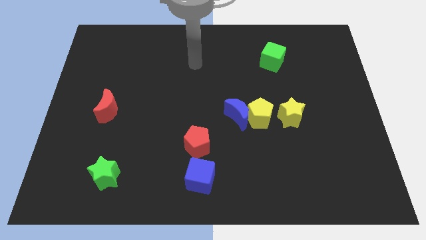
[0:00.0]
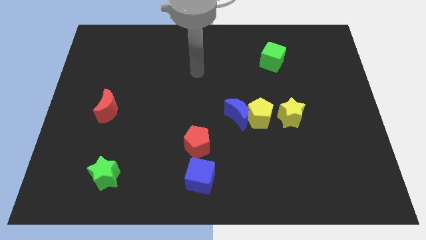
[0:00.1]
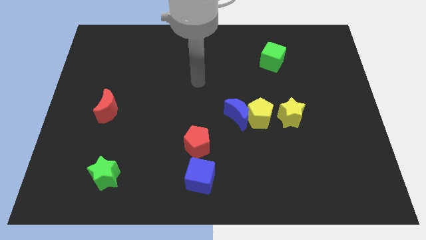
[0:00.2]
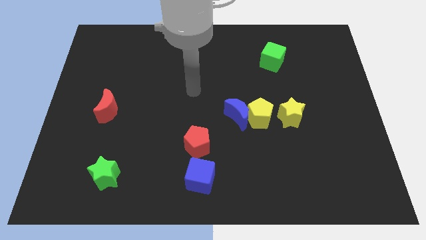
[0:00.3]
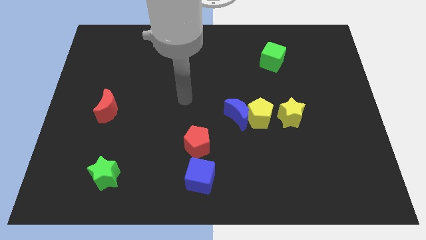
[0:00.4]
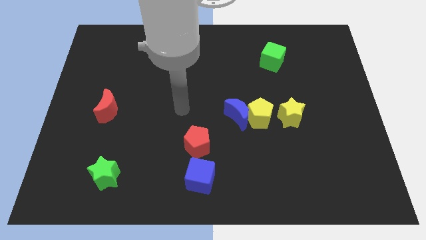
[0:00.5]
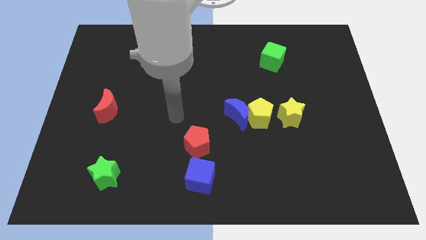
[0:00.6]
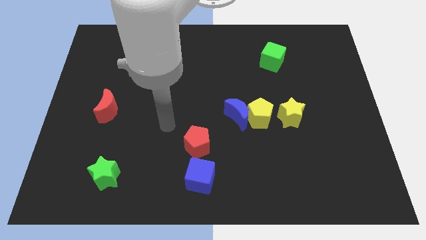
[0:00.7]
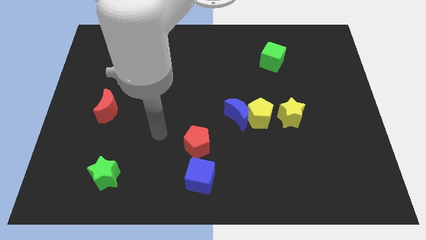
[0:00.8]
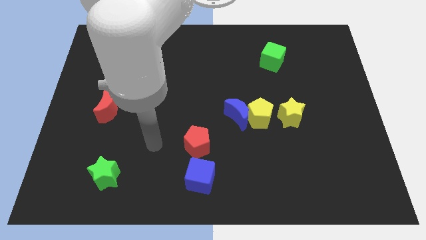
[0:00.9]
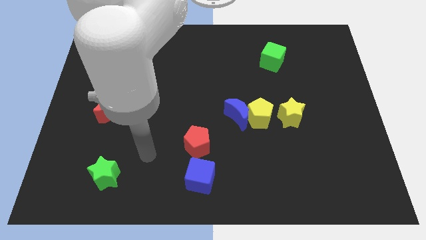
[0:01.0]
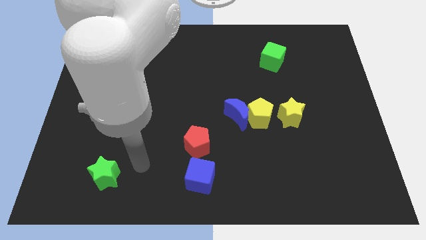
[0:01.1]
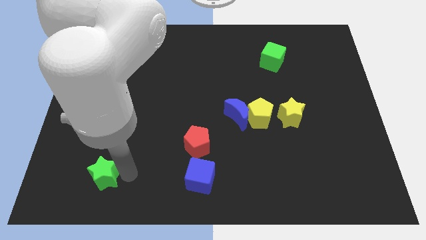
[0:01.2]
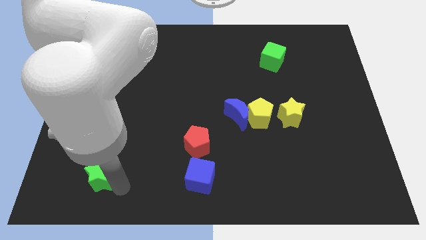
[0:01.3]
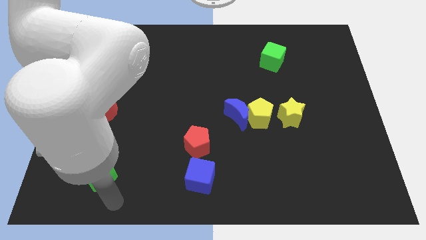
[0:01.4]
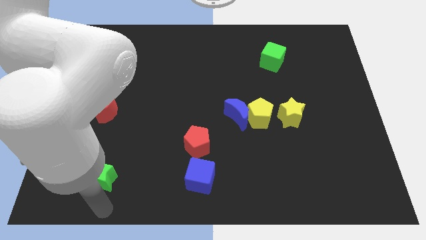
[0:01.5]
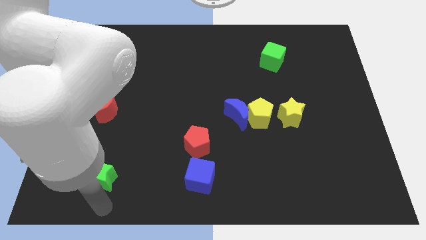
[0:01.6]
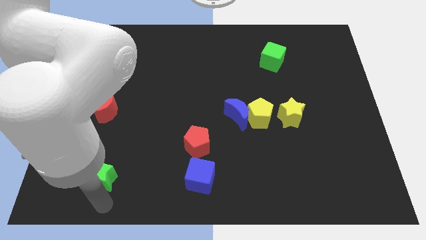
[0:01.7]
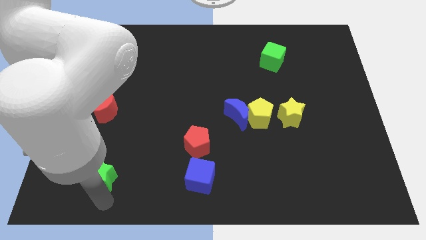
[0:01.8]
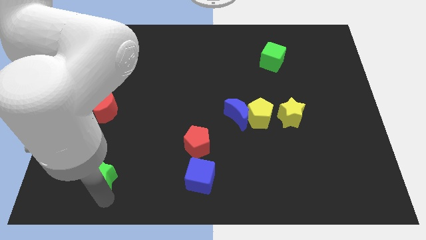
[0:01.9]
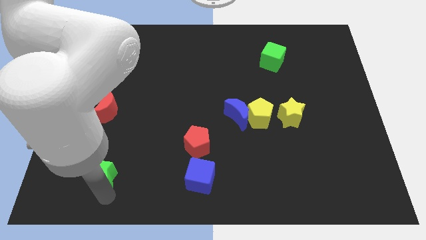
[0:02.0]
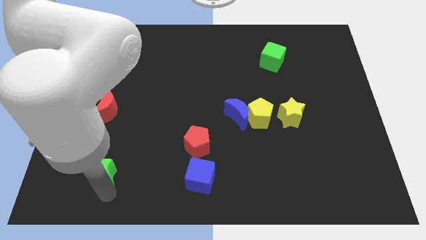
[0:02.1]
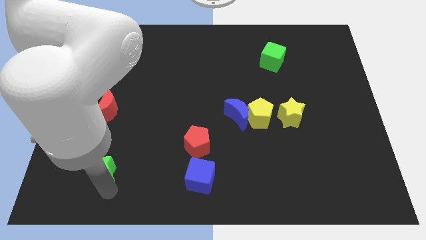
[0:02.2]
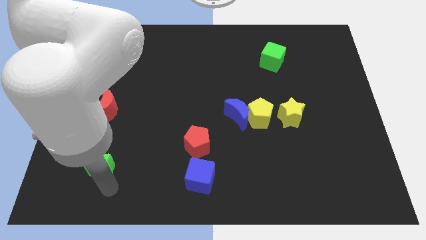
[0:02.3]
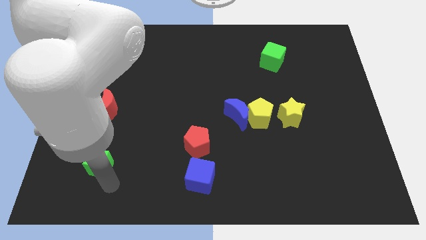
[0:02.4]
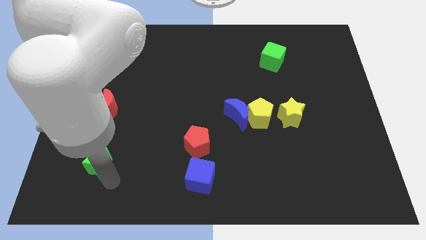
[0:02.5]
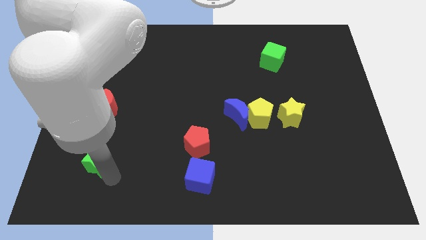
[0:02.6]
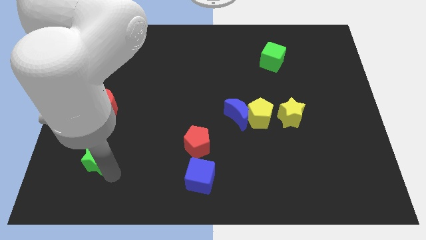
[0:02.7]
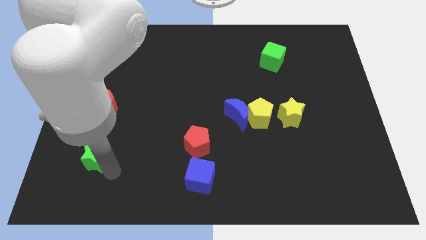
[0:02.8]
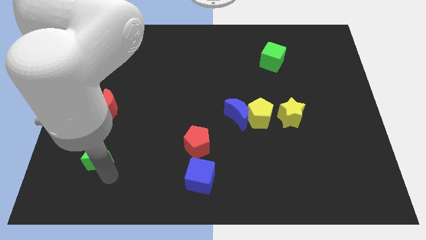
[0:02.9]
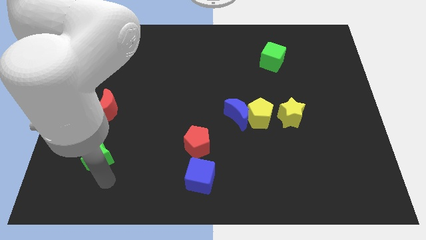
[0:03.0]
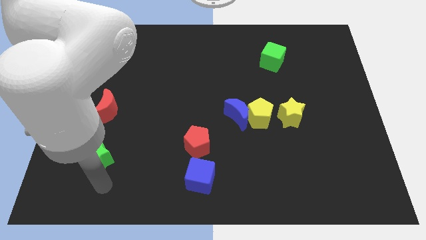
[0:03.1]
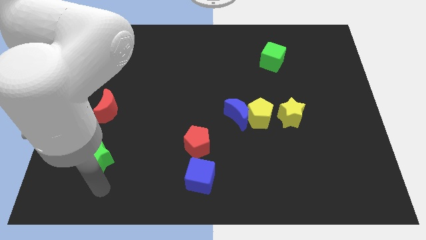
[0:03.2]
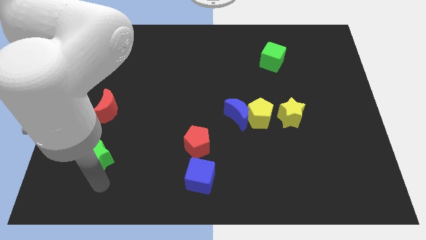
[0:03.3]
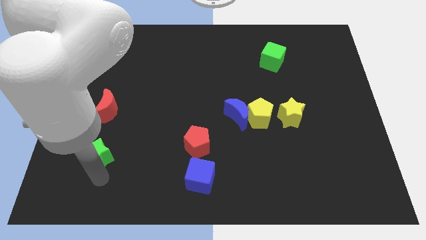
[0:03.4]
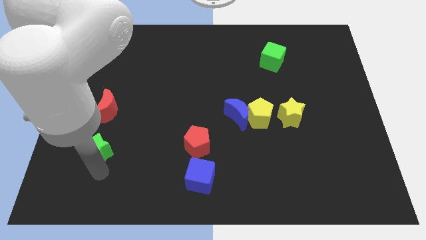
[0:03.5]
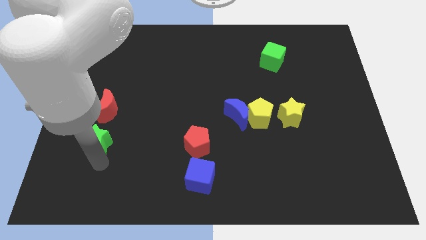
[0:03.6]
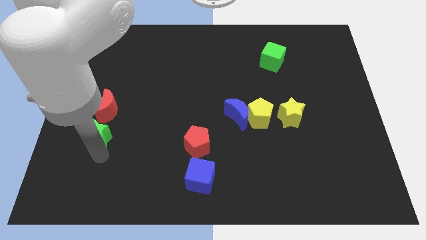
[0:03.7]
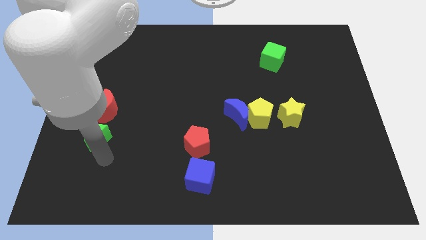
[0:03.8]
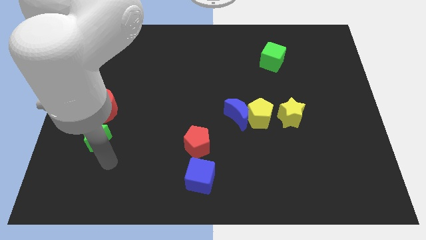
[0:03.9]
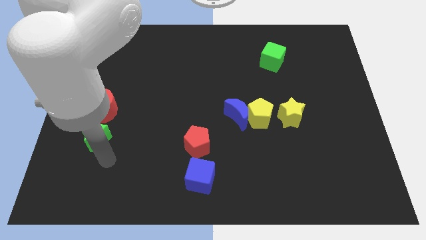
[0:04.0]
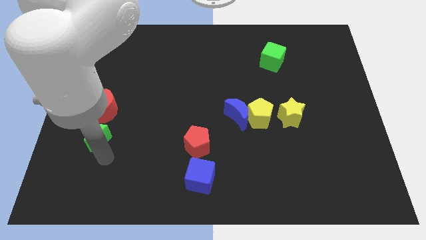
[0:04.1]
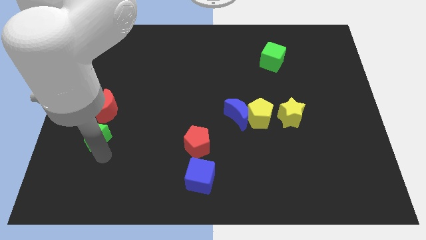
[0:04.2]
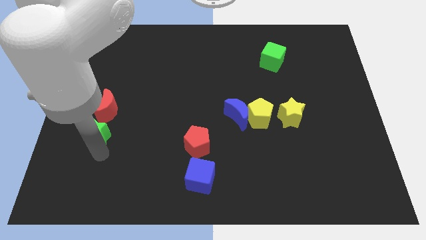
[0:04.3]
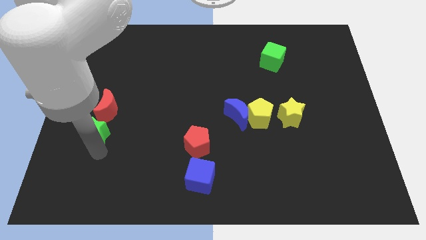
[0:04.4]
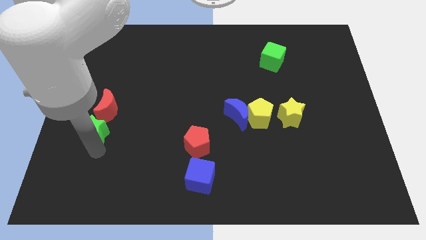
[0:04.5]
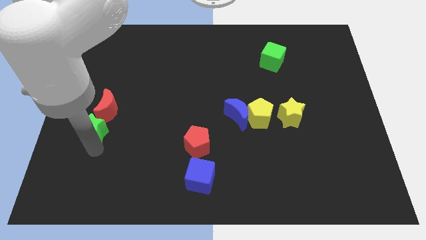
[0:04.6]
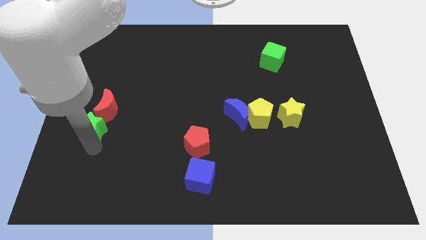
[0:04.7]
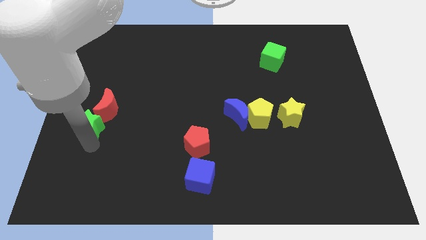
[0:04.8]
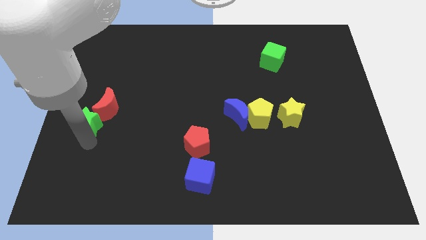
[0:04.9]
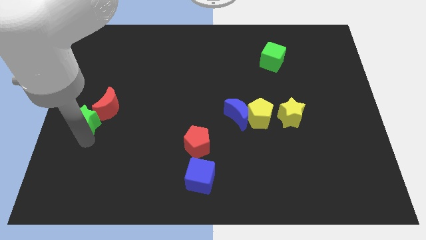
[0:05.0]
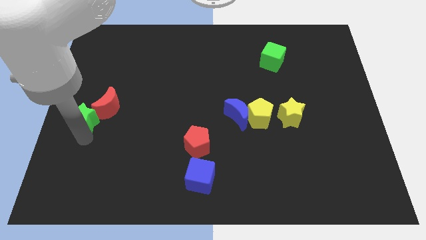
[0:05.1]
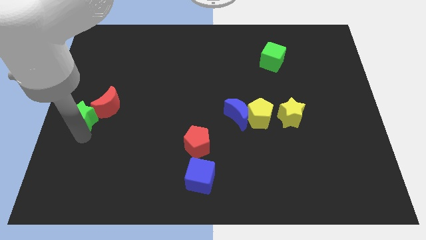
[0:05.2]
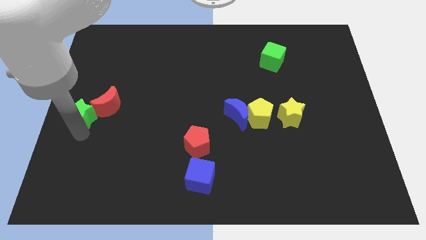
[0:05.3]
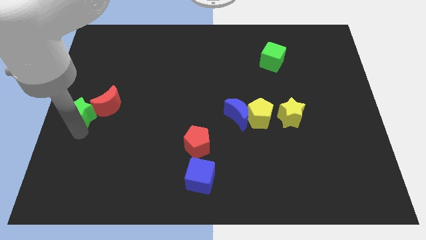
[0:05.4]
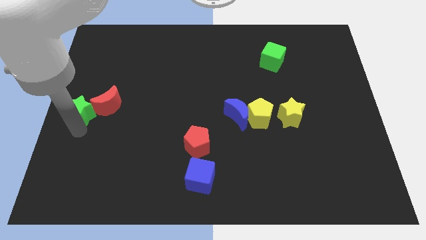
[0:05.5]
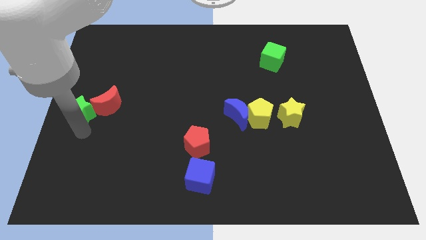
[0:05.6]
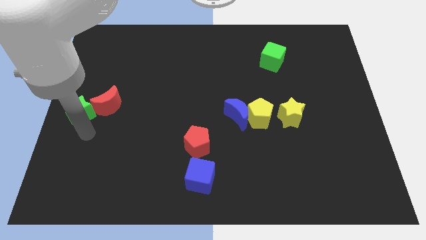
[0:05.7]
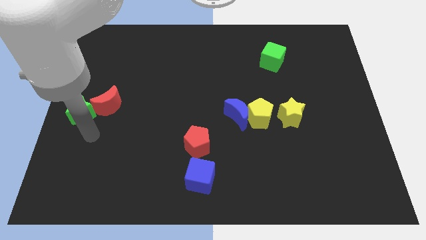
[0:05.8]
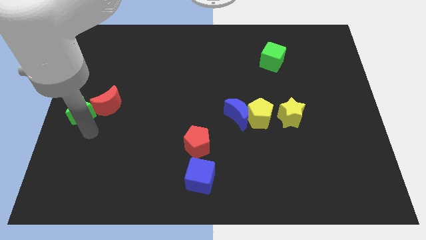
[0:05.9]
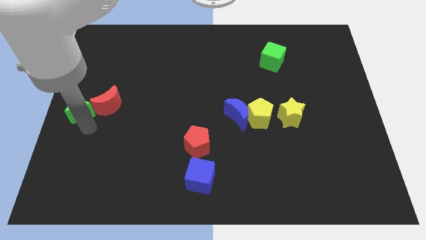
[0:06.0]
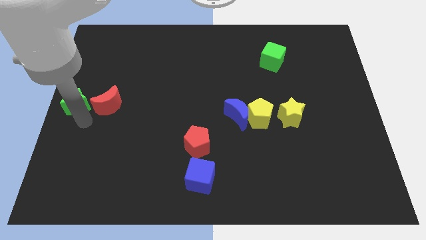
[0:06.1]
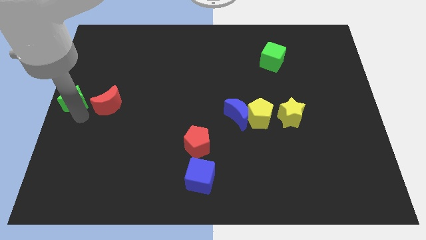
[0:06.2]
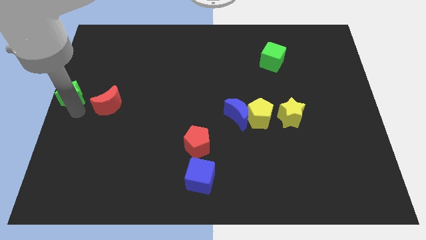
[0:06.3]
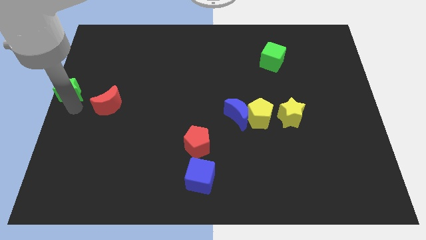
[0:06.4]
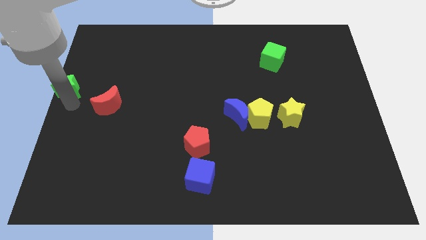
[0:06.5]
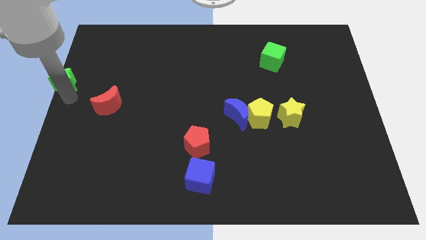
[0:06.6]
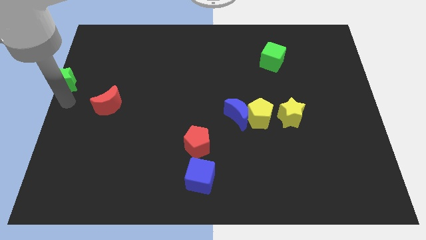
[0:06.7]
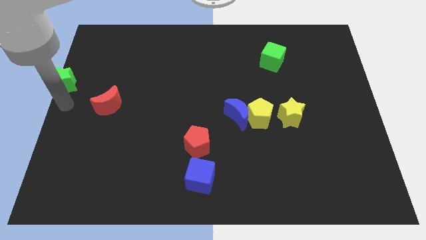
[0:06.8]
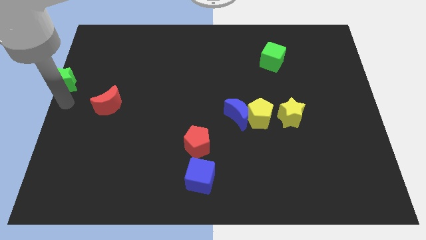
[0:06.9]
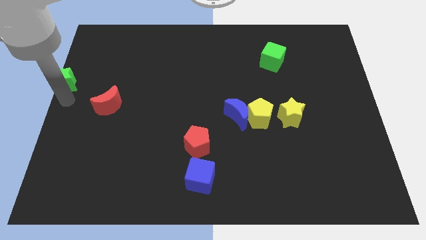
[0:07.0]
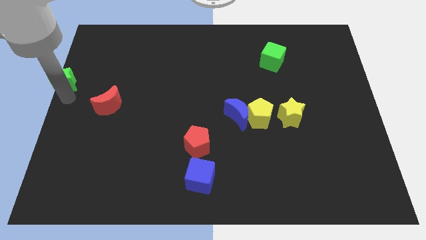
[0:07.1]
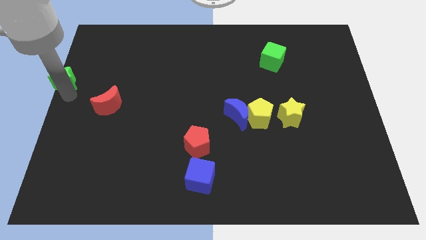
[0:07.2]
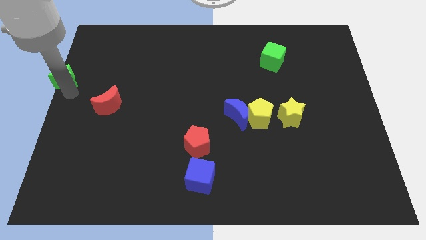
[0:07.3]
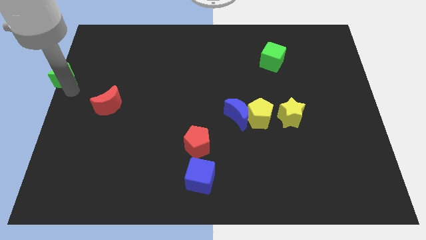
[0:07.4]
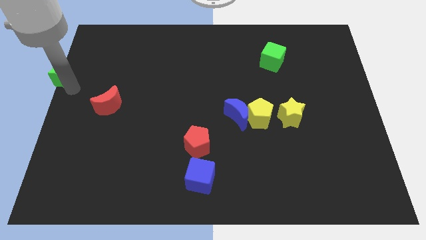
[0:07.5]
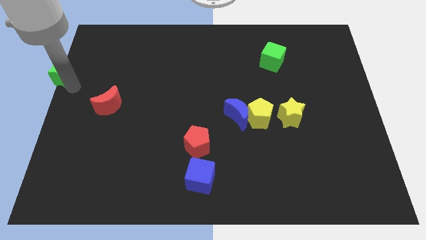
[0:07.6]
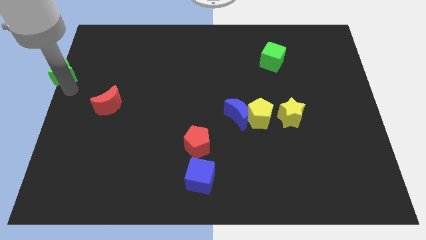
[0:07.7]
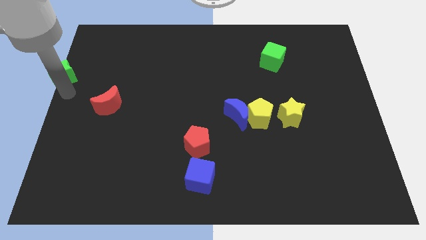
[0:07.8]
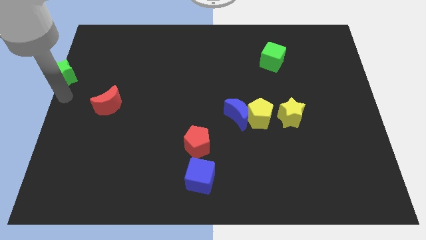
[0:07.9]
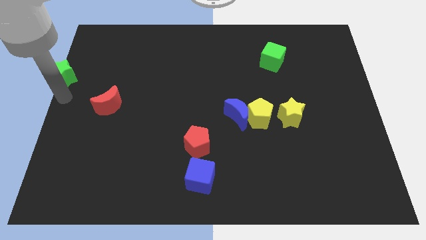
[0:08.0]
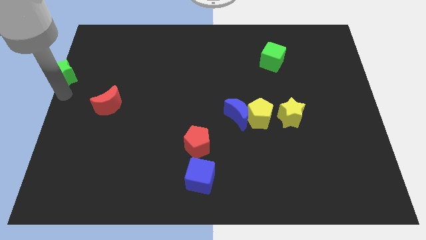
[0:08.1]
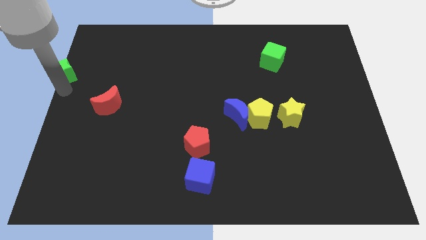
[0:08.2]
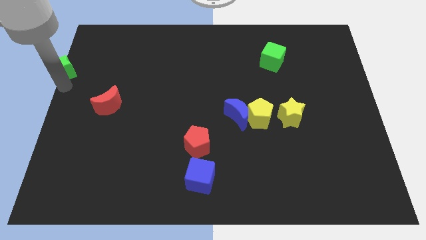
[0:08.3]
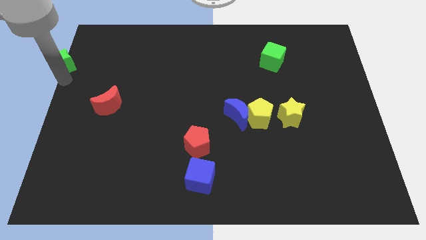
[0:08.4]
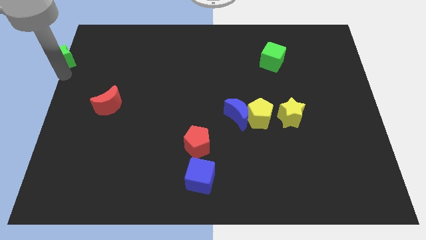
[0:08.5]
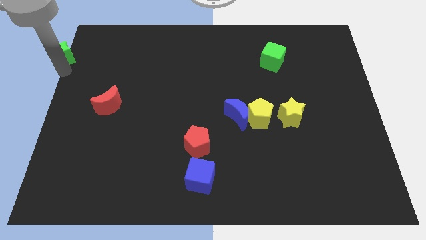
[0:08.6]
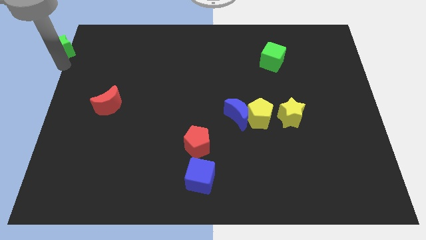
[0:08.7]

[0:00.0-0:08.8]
slide the green star to the top left of the board
